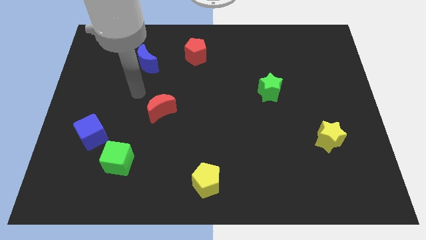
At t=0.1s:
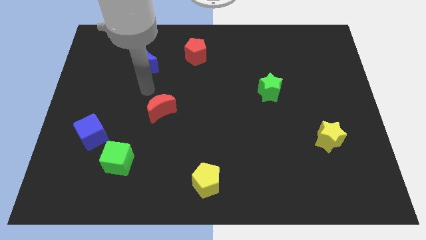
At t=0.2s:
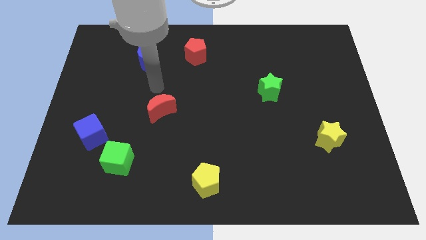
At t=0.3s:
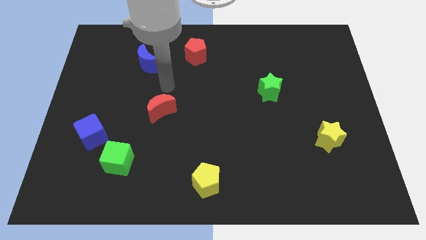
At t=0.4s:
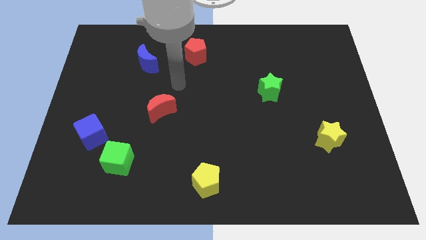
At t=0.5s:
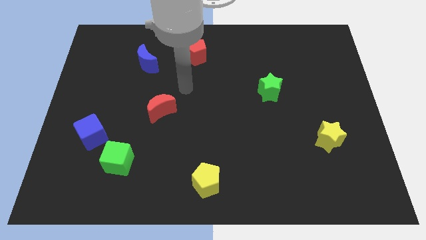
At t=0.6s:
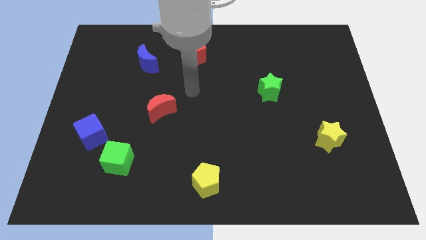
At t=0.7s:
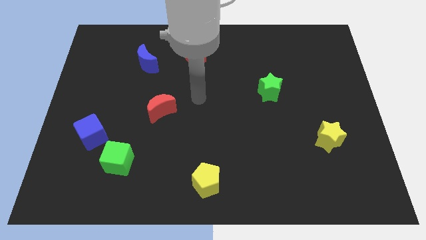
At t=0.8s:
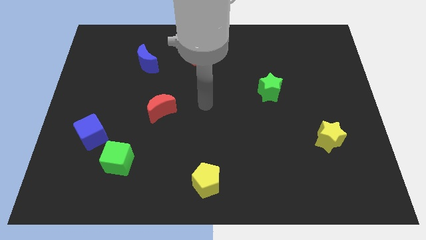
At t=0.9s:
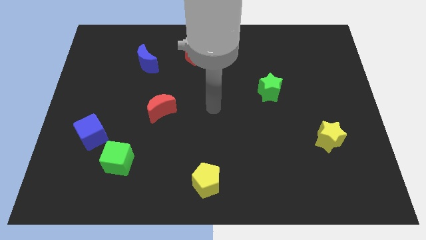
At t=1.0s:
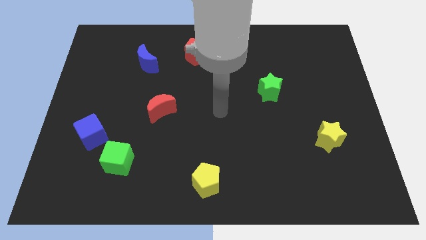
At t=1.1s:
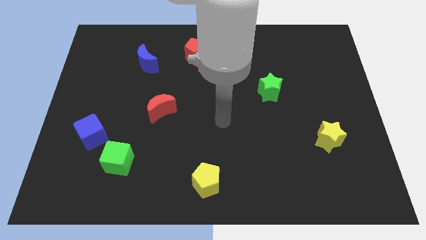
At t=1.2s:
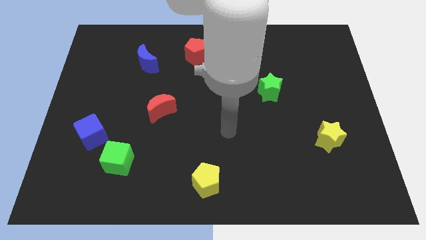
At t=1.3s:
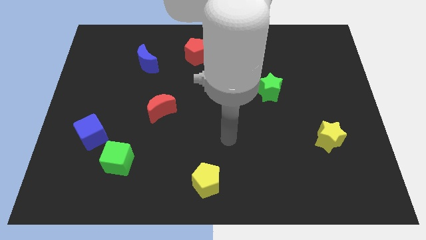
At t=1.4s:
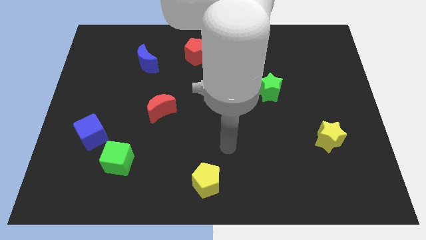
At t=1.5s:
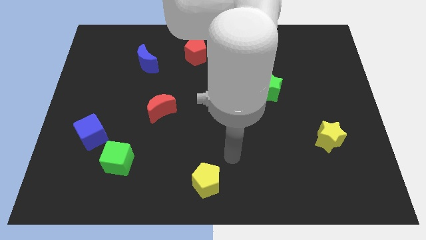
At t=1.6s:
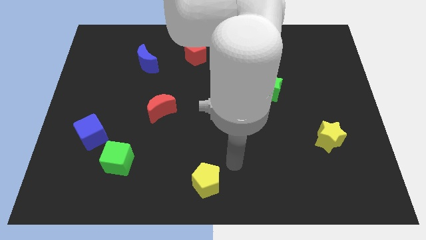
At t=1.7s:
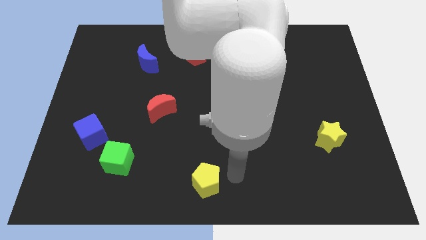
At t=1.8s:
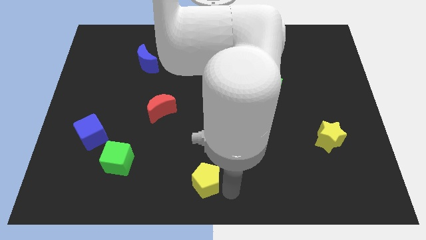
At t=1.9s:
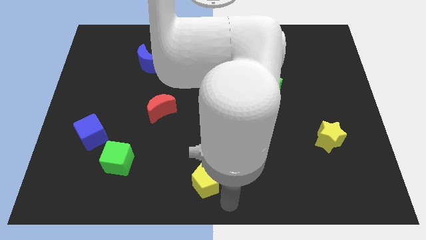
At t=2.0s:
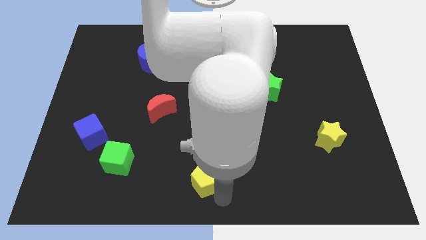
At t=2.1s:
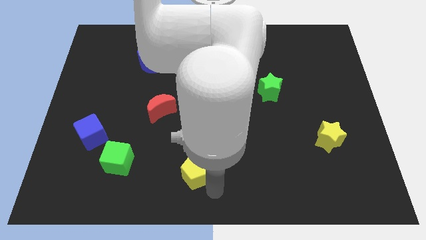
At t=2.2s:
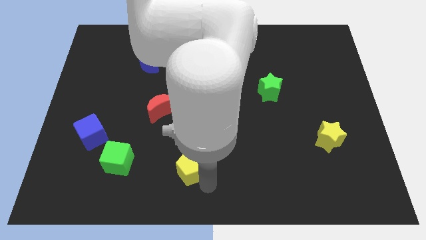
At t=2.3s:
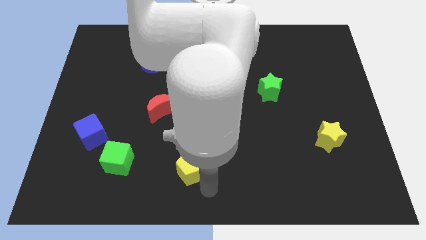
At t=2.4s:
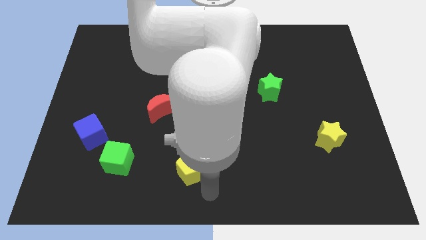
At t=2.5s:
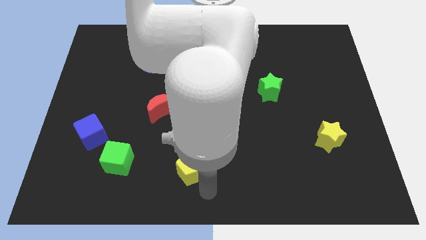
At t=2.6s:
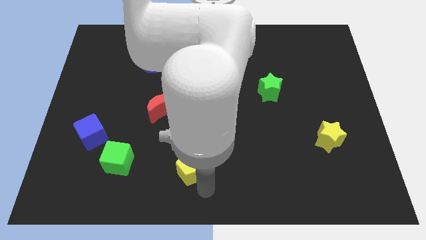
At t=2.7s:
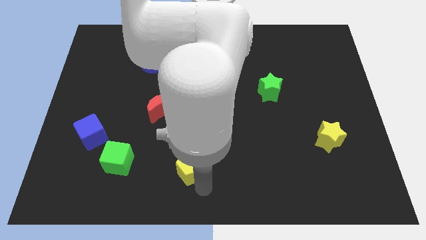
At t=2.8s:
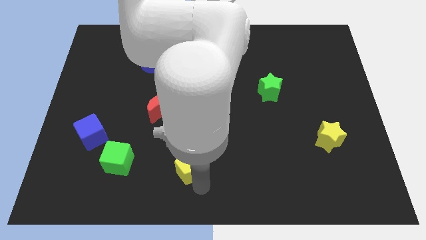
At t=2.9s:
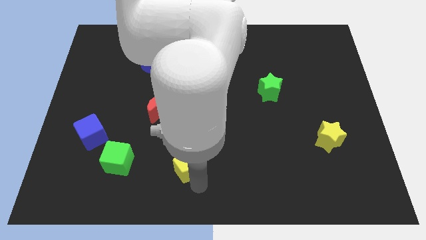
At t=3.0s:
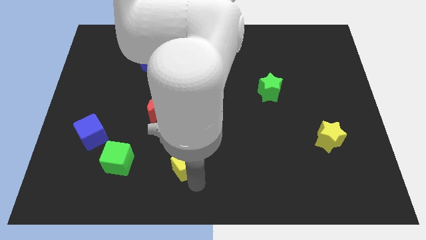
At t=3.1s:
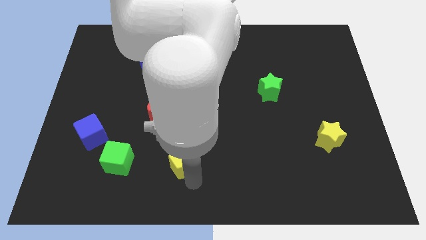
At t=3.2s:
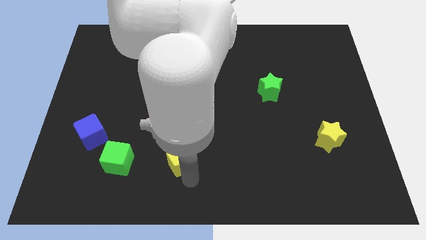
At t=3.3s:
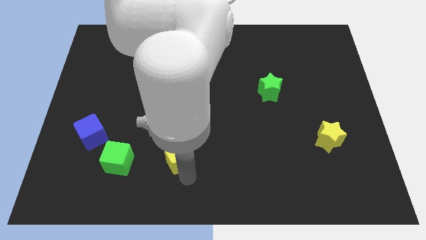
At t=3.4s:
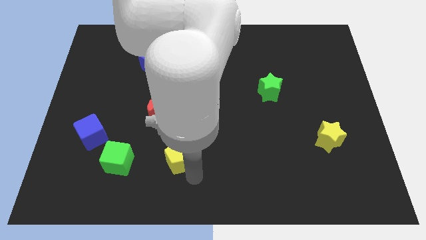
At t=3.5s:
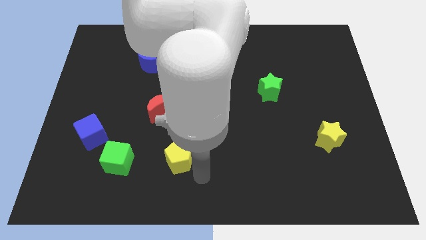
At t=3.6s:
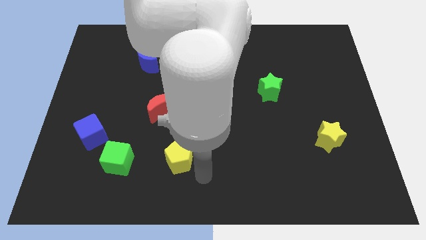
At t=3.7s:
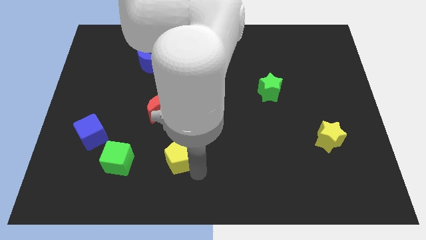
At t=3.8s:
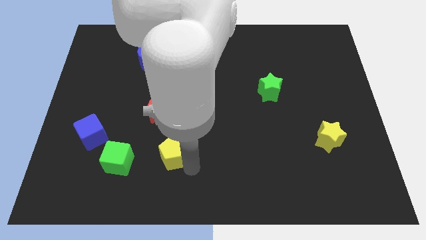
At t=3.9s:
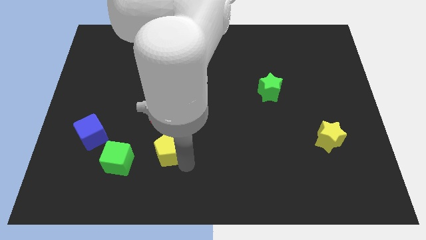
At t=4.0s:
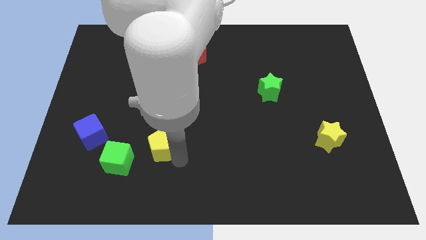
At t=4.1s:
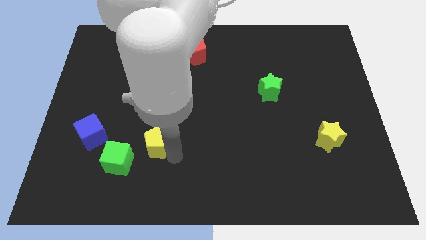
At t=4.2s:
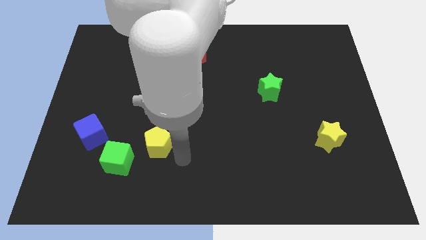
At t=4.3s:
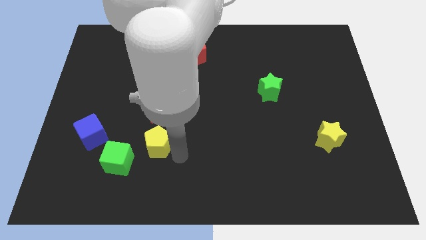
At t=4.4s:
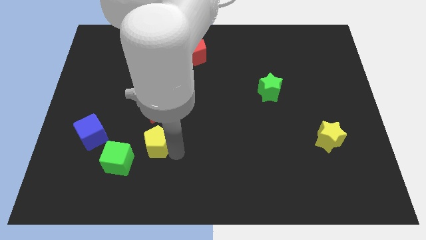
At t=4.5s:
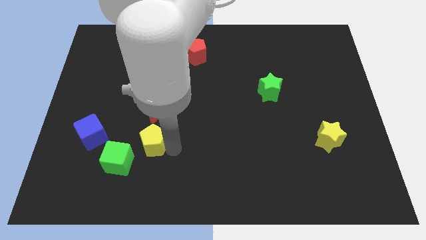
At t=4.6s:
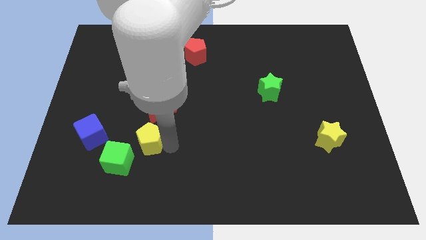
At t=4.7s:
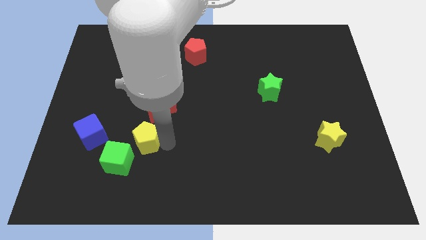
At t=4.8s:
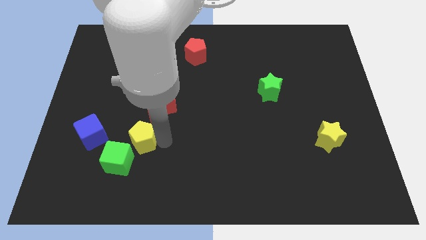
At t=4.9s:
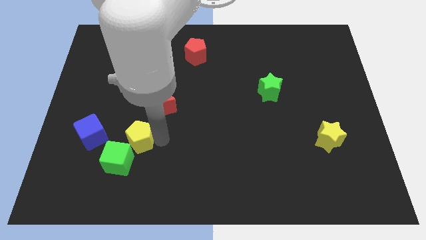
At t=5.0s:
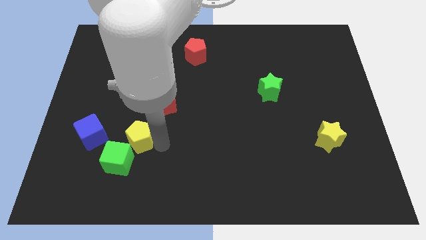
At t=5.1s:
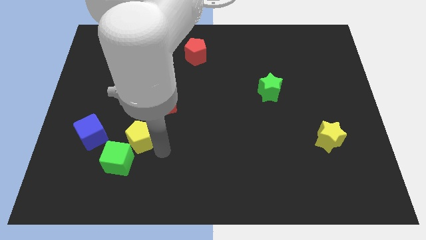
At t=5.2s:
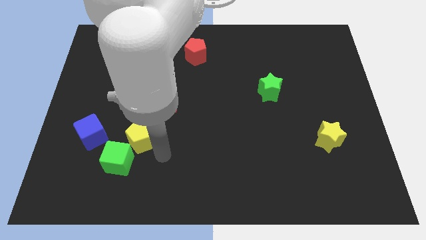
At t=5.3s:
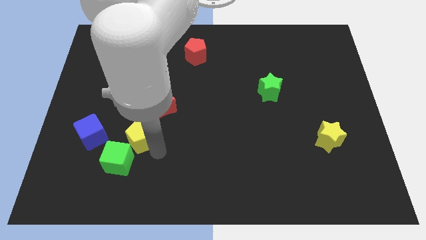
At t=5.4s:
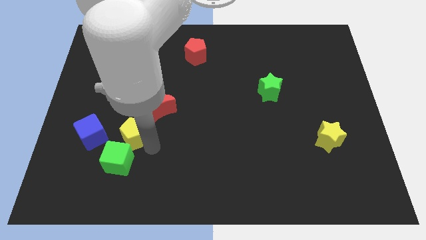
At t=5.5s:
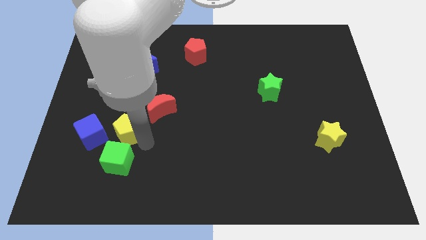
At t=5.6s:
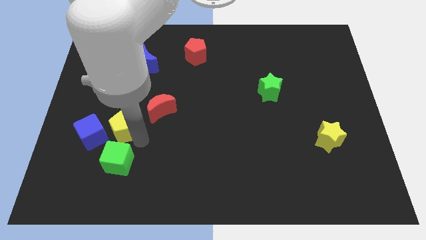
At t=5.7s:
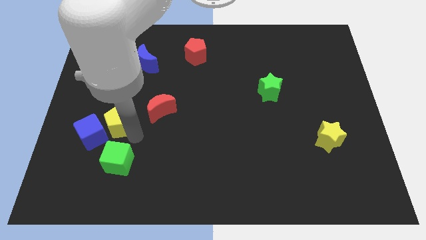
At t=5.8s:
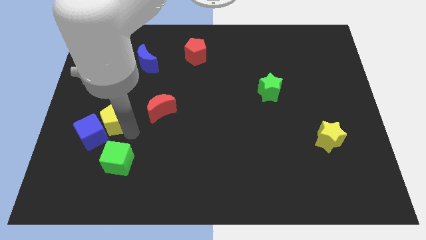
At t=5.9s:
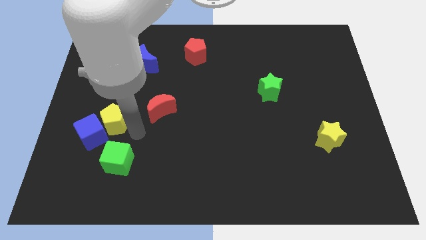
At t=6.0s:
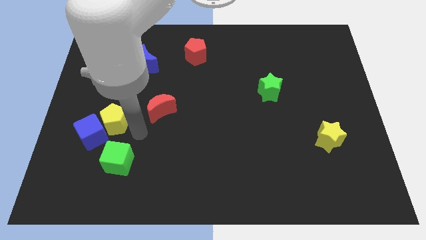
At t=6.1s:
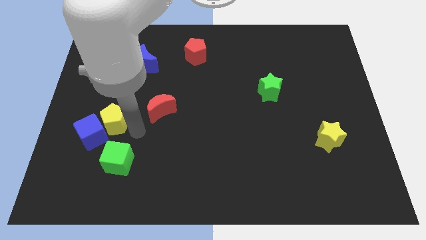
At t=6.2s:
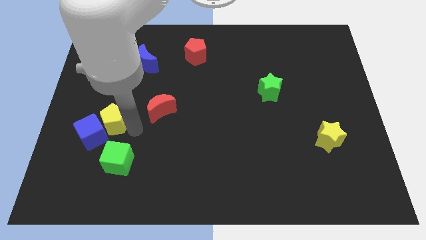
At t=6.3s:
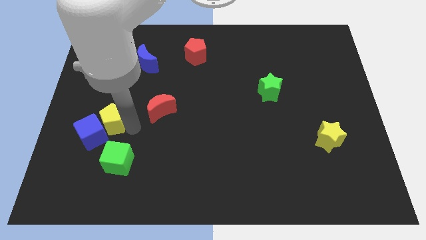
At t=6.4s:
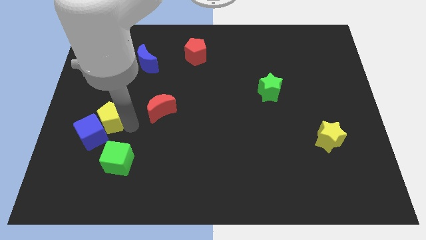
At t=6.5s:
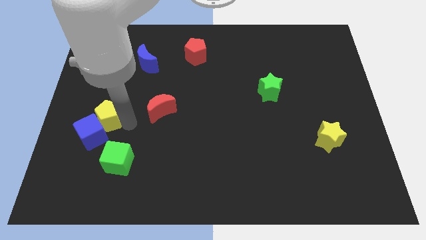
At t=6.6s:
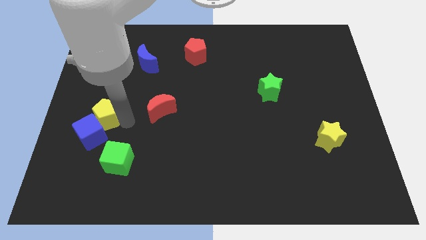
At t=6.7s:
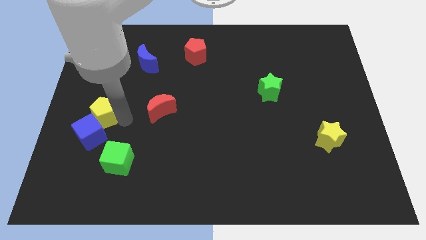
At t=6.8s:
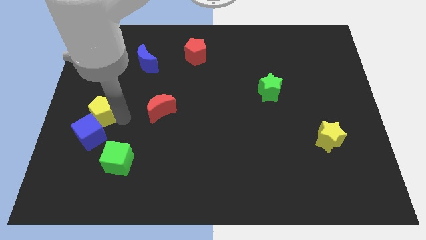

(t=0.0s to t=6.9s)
push the yellow pentagon to the left side
